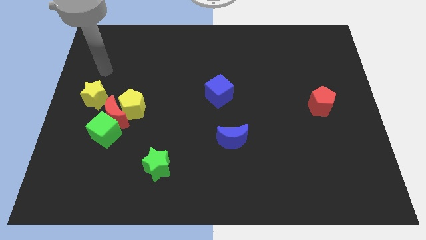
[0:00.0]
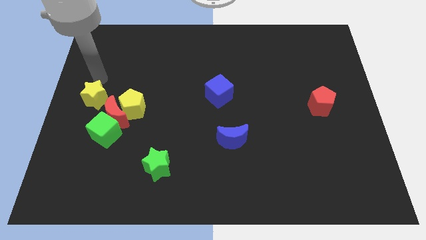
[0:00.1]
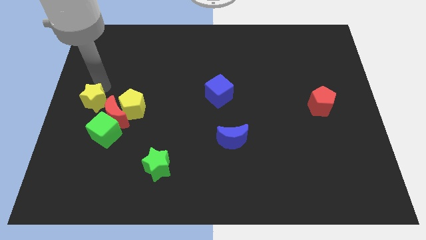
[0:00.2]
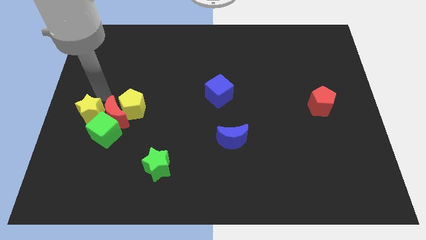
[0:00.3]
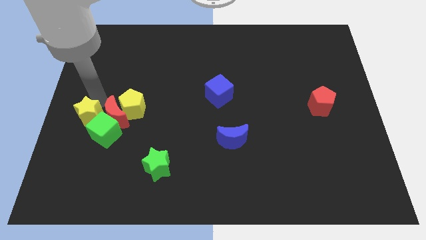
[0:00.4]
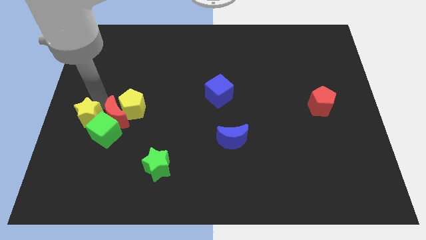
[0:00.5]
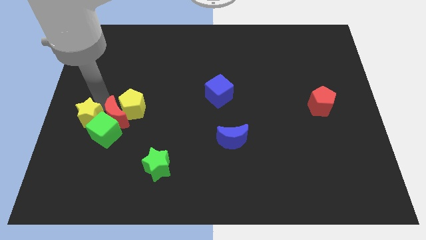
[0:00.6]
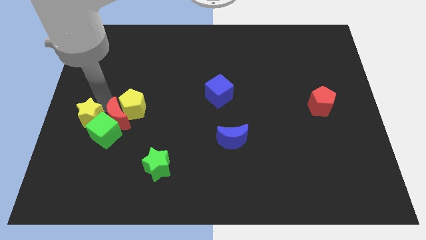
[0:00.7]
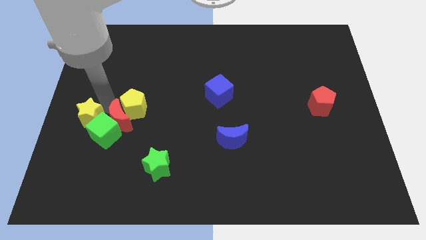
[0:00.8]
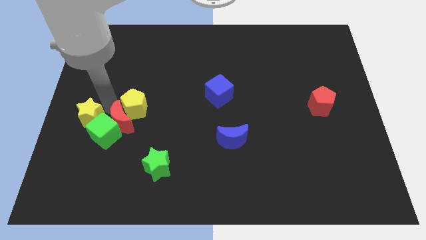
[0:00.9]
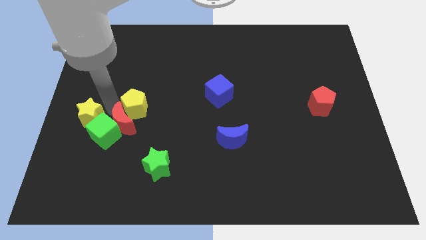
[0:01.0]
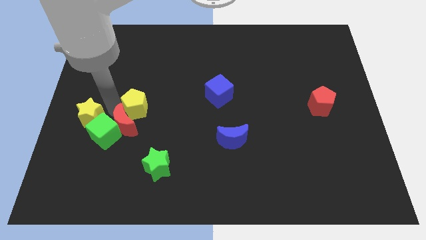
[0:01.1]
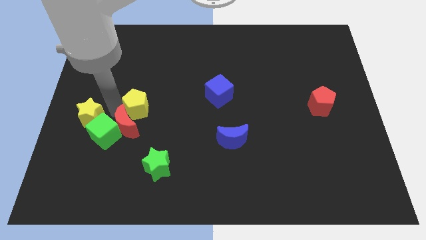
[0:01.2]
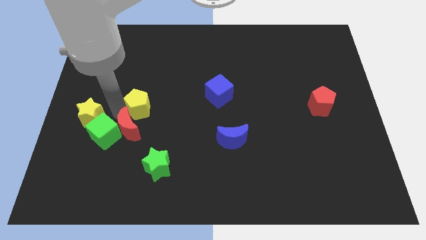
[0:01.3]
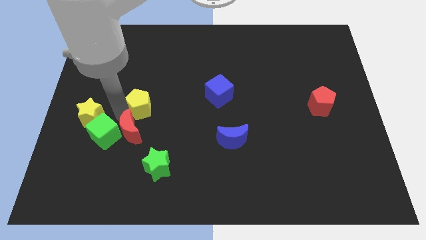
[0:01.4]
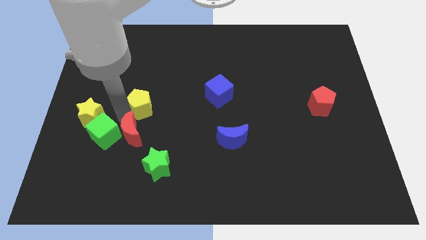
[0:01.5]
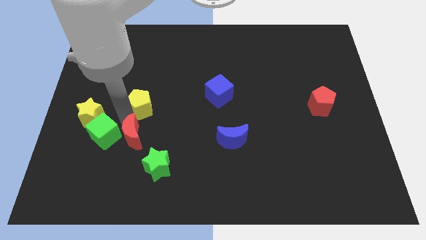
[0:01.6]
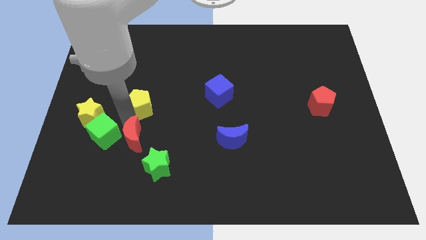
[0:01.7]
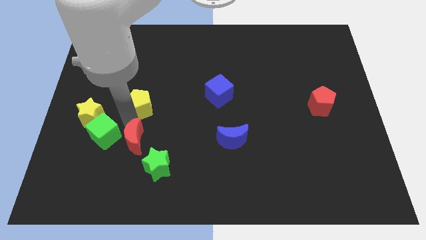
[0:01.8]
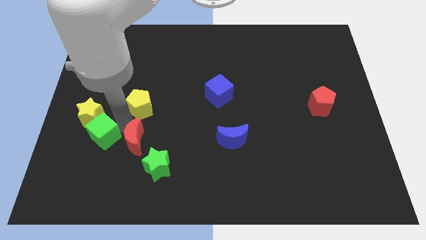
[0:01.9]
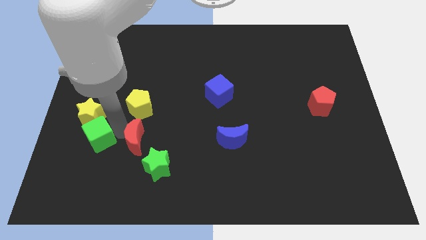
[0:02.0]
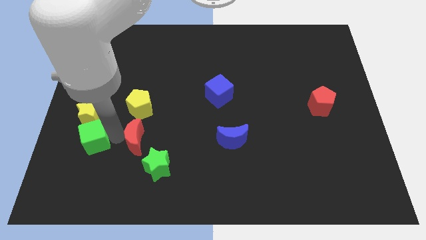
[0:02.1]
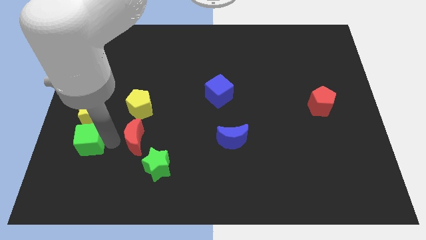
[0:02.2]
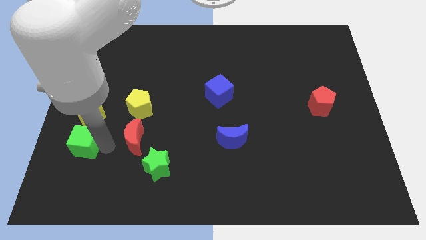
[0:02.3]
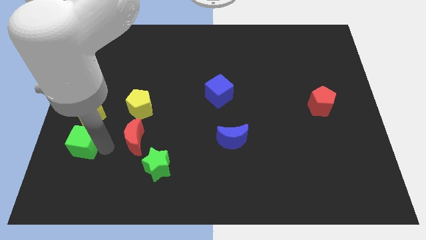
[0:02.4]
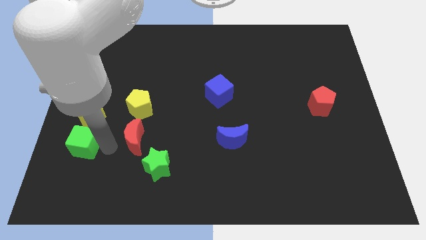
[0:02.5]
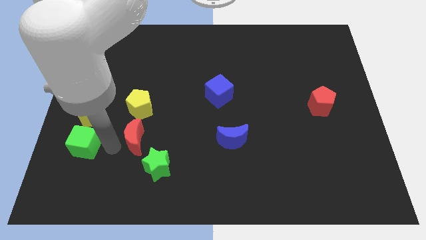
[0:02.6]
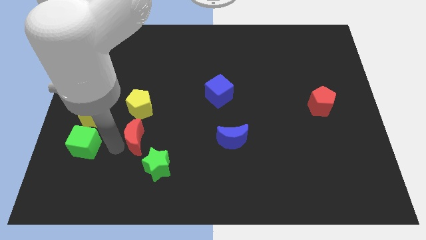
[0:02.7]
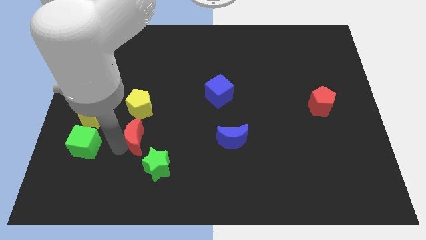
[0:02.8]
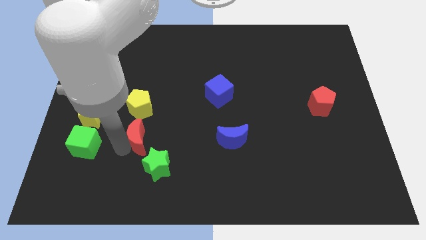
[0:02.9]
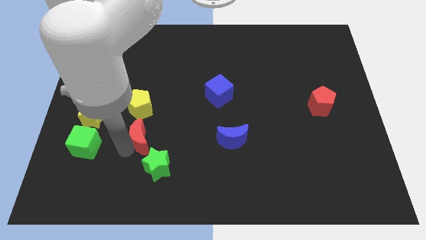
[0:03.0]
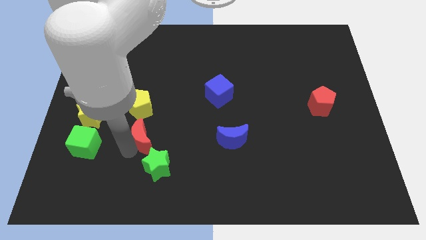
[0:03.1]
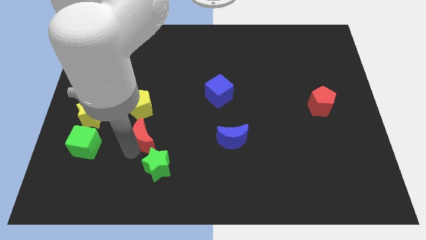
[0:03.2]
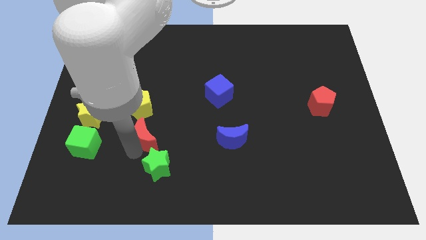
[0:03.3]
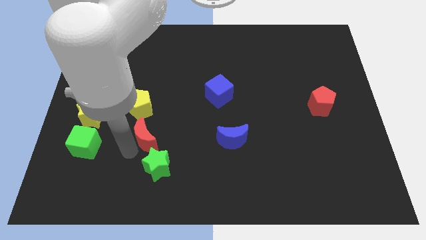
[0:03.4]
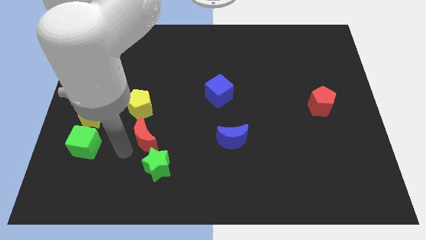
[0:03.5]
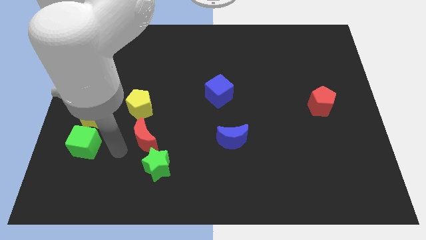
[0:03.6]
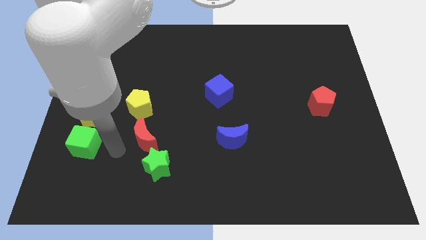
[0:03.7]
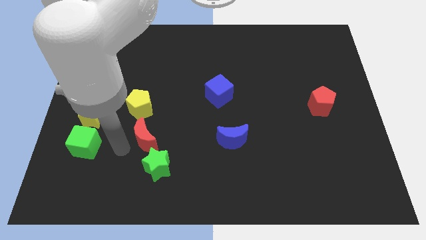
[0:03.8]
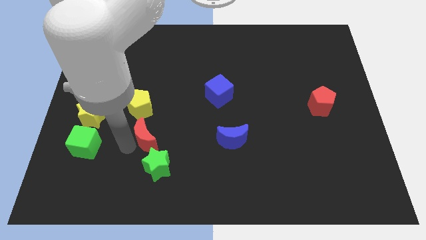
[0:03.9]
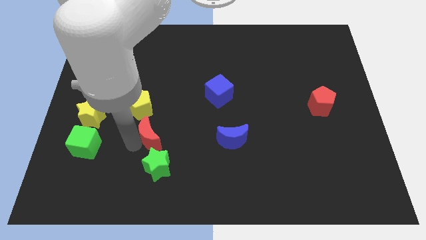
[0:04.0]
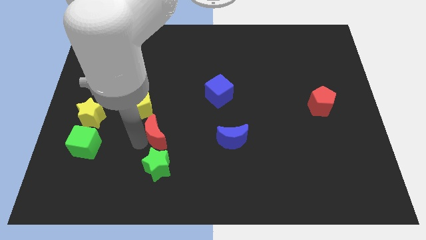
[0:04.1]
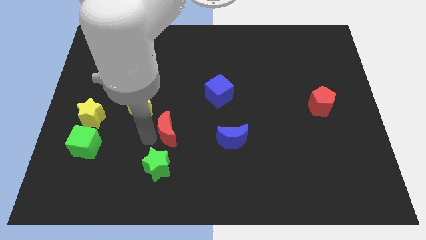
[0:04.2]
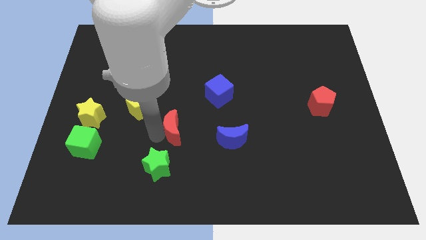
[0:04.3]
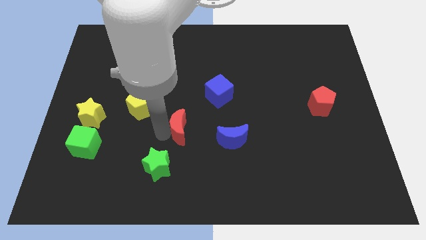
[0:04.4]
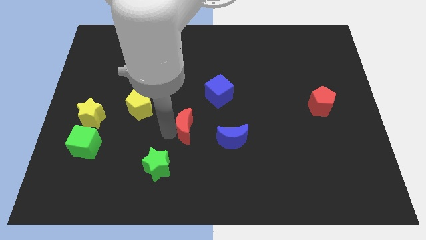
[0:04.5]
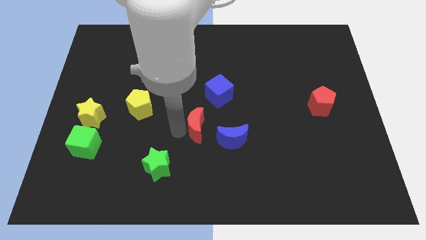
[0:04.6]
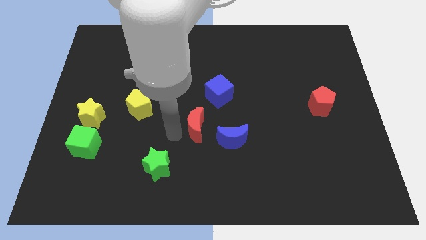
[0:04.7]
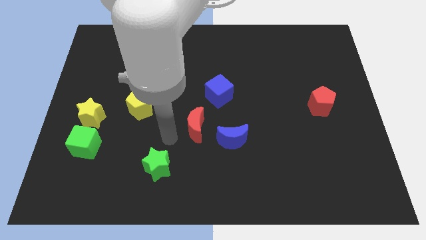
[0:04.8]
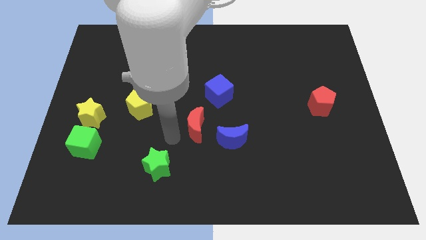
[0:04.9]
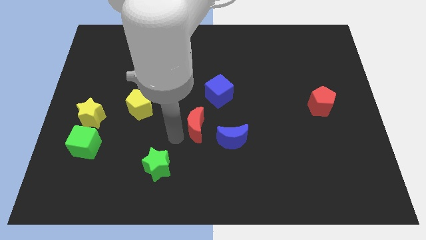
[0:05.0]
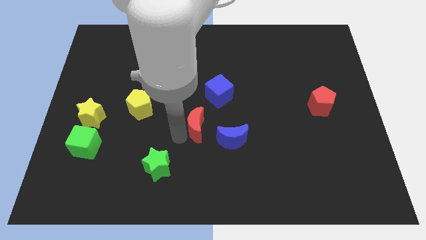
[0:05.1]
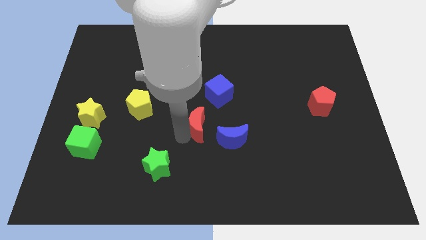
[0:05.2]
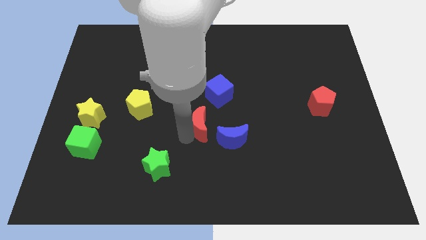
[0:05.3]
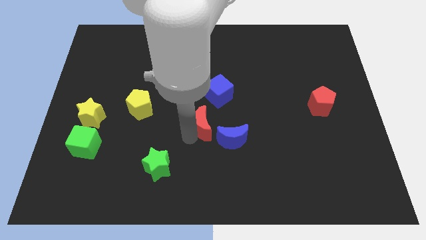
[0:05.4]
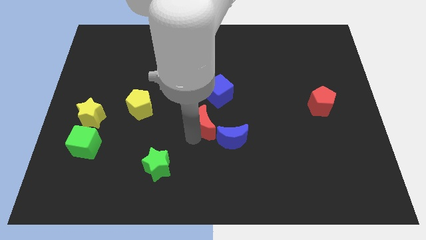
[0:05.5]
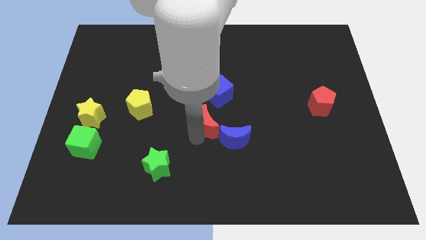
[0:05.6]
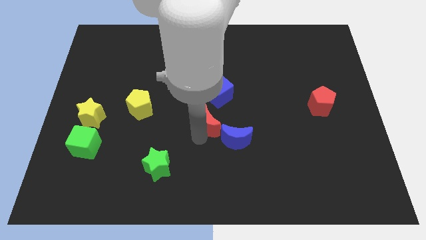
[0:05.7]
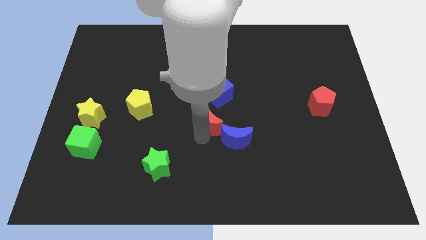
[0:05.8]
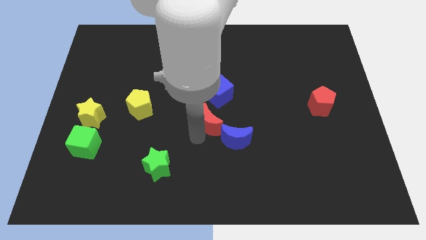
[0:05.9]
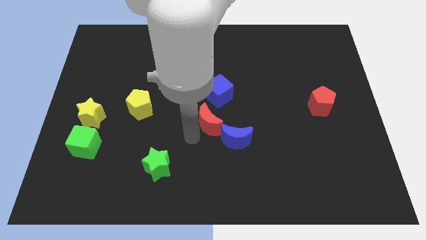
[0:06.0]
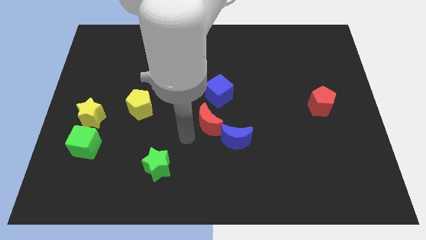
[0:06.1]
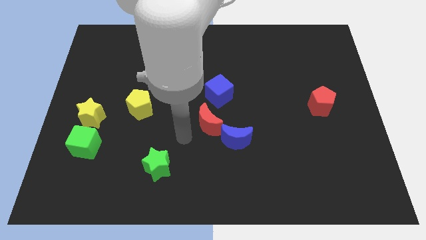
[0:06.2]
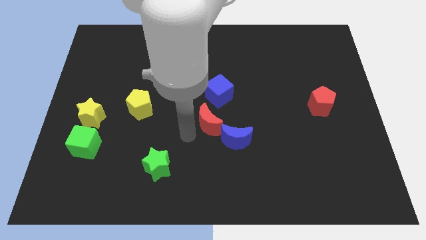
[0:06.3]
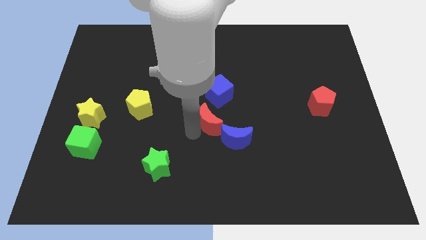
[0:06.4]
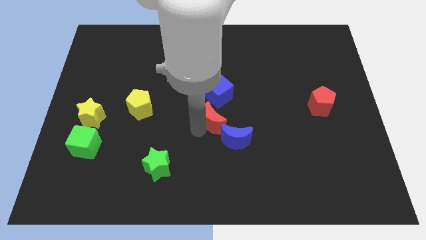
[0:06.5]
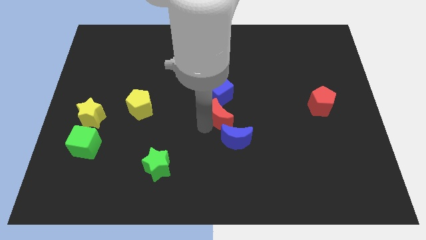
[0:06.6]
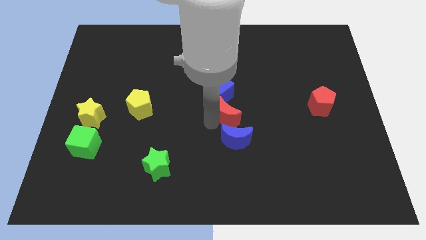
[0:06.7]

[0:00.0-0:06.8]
slide the red moon to the bottom right side of the blue cube
